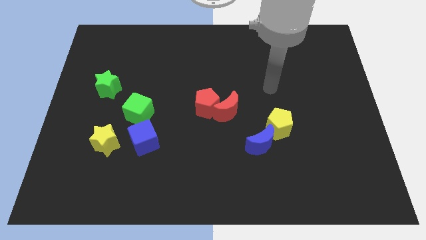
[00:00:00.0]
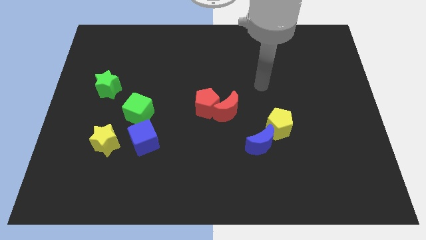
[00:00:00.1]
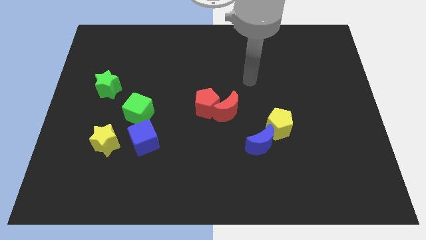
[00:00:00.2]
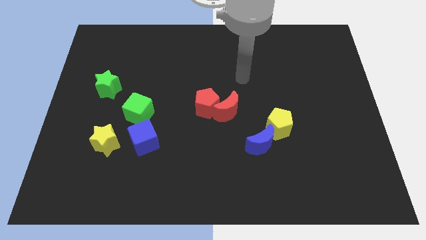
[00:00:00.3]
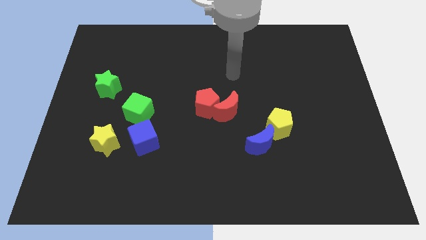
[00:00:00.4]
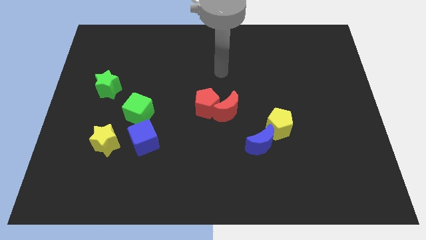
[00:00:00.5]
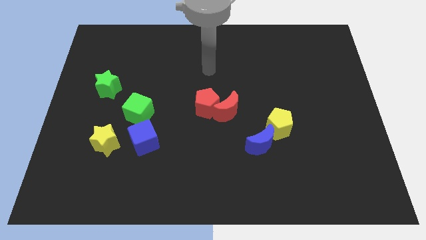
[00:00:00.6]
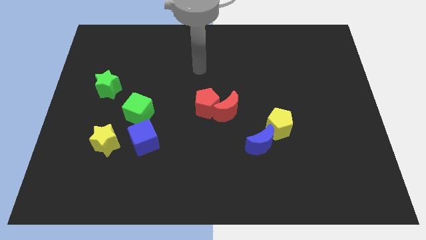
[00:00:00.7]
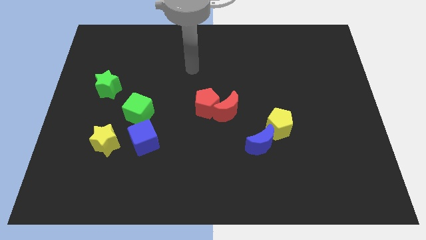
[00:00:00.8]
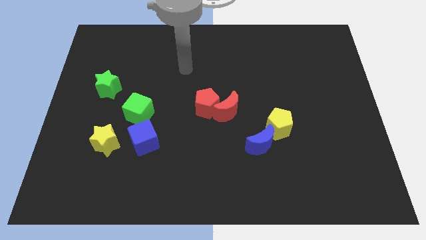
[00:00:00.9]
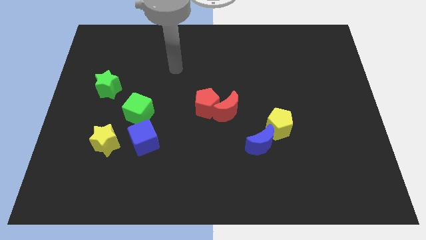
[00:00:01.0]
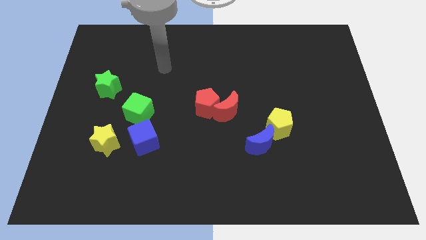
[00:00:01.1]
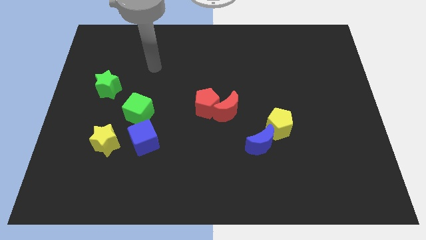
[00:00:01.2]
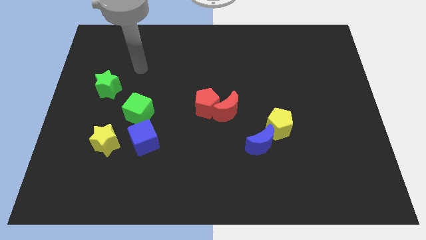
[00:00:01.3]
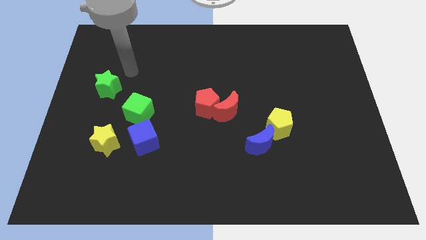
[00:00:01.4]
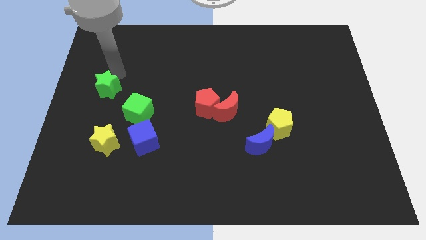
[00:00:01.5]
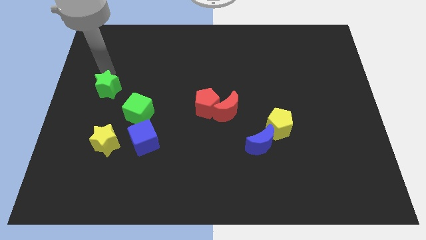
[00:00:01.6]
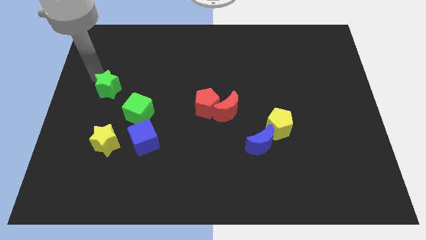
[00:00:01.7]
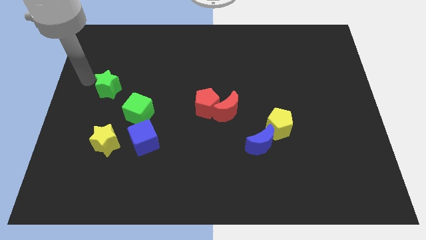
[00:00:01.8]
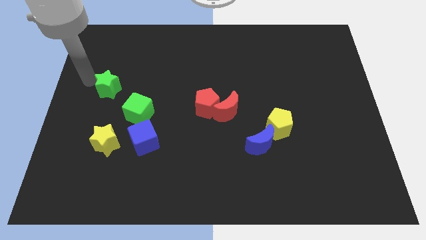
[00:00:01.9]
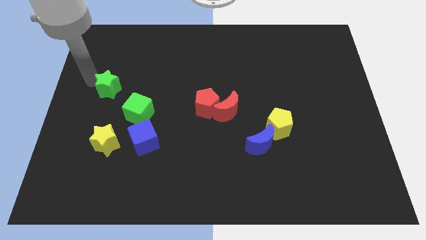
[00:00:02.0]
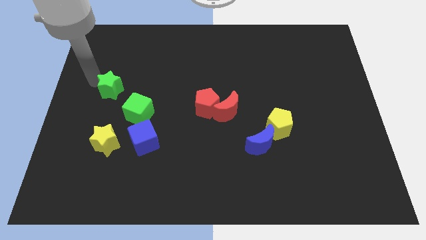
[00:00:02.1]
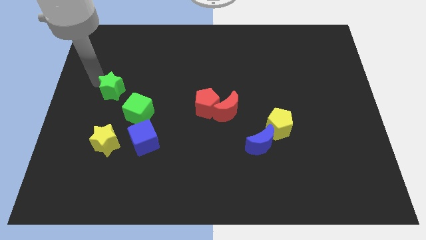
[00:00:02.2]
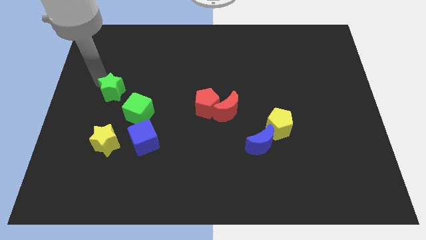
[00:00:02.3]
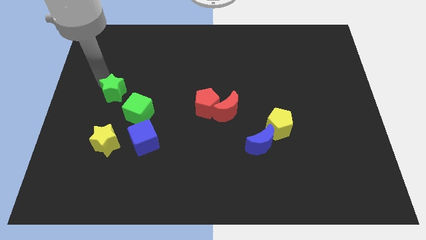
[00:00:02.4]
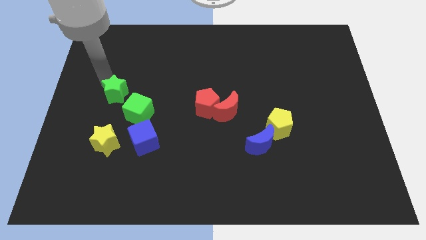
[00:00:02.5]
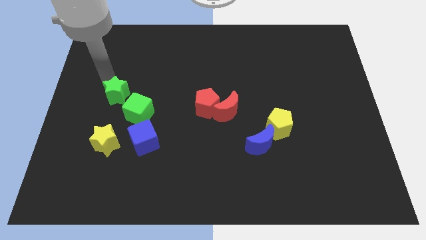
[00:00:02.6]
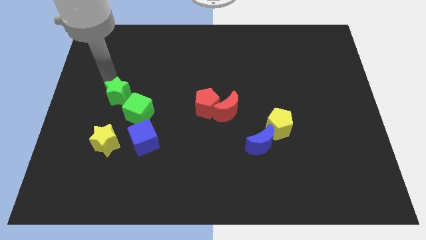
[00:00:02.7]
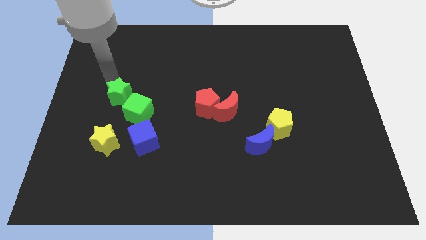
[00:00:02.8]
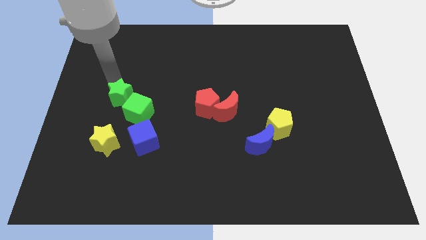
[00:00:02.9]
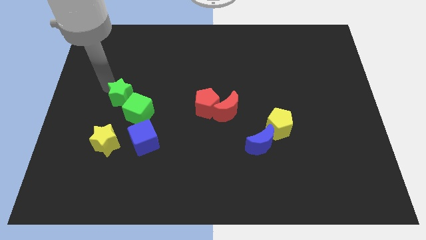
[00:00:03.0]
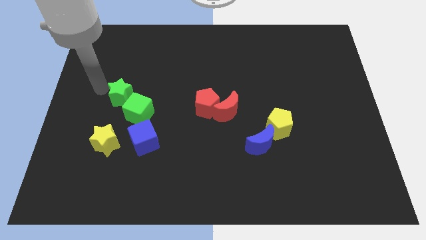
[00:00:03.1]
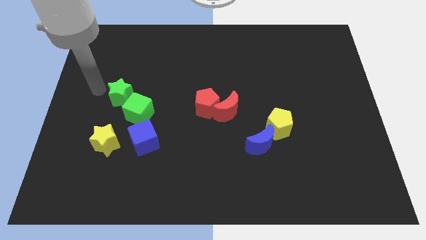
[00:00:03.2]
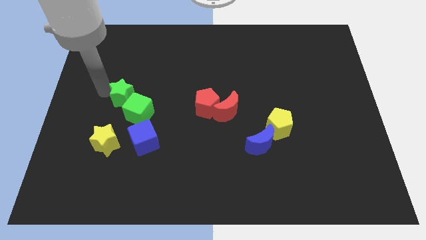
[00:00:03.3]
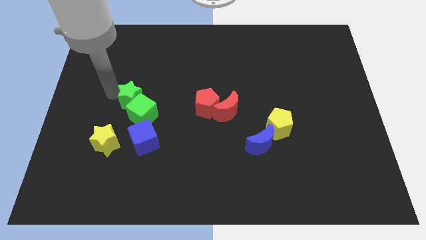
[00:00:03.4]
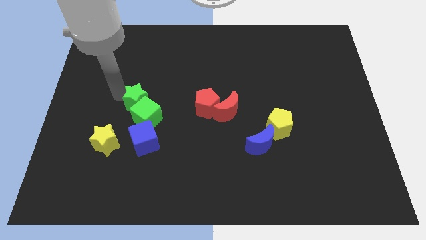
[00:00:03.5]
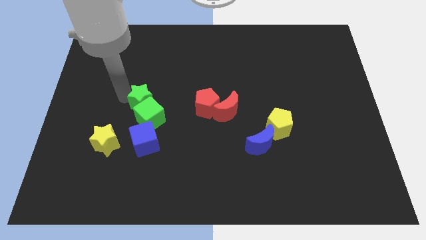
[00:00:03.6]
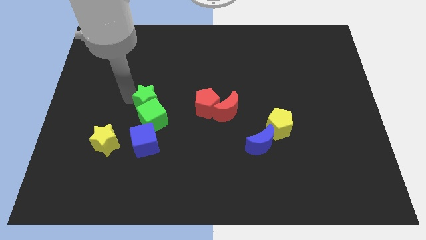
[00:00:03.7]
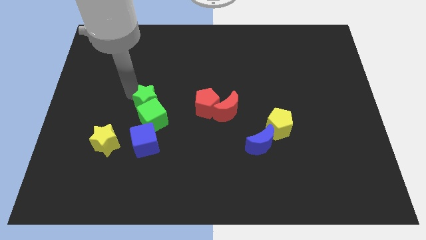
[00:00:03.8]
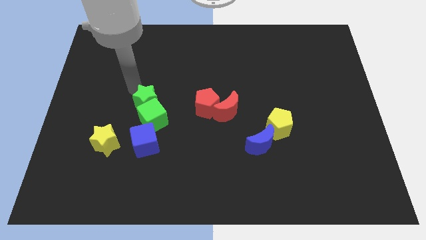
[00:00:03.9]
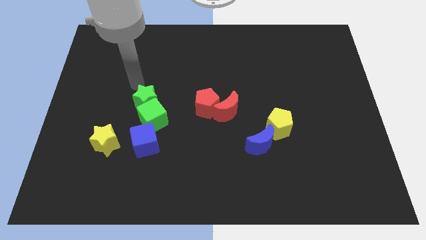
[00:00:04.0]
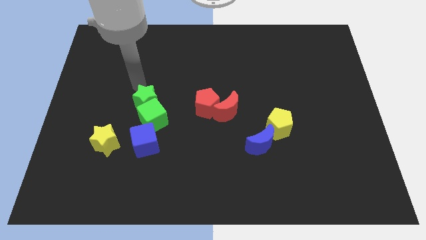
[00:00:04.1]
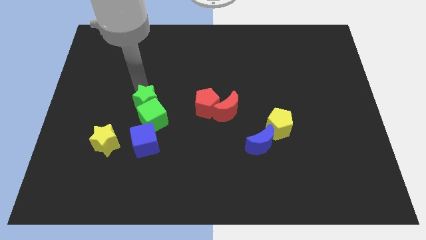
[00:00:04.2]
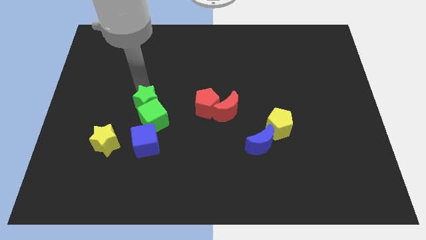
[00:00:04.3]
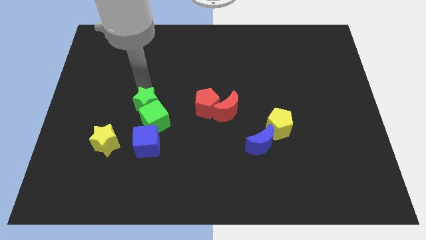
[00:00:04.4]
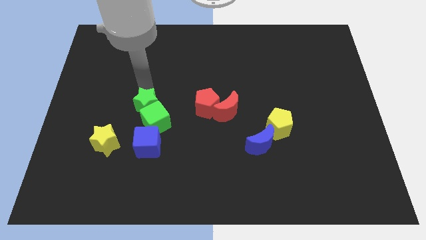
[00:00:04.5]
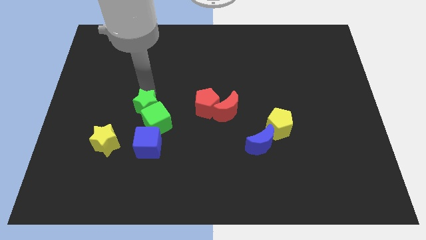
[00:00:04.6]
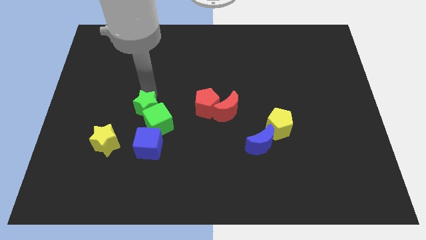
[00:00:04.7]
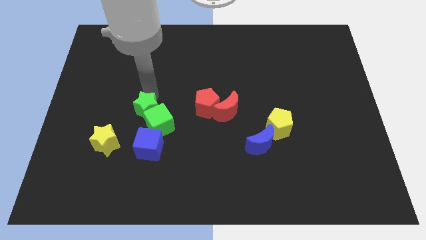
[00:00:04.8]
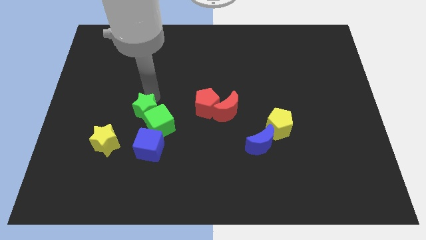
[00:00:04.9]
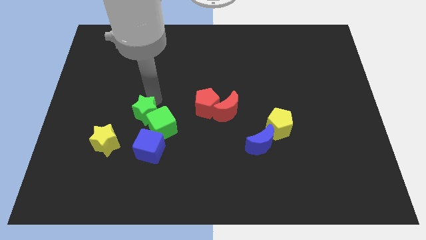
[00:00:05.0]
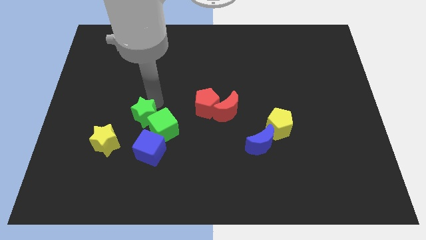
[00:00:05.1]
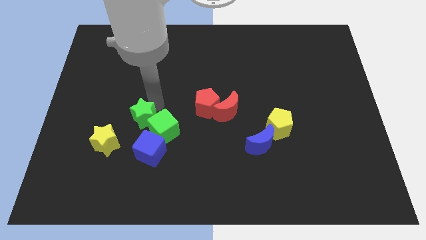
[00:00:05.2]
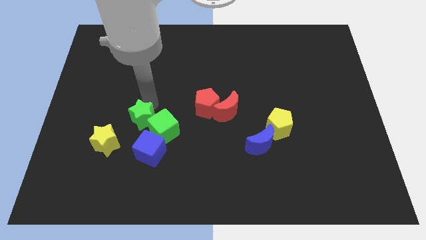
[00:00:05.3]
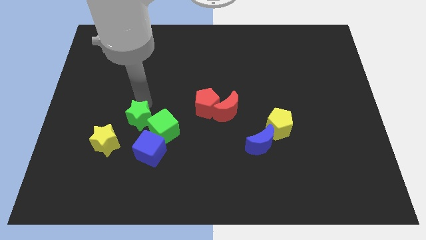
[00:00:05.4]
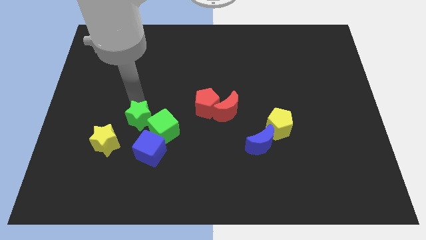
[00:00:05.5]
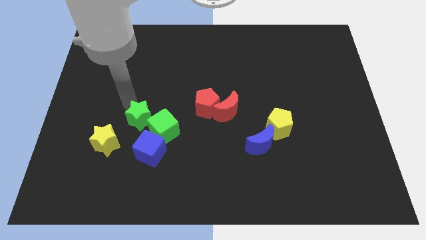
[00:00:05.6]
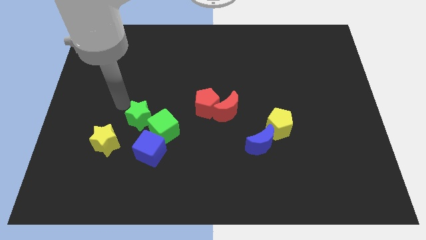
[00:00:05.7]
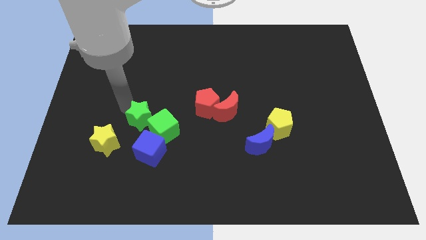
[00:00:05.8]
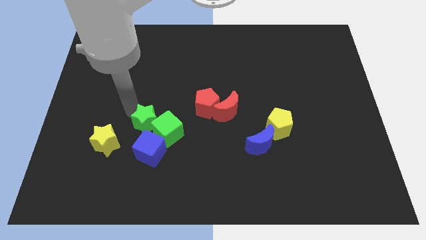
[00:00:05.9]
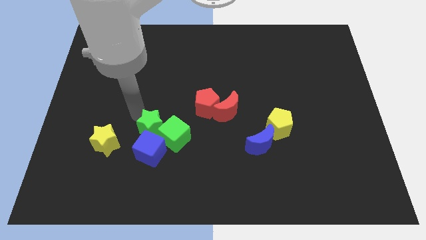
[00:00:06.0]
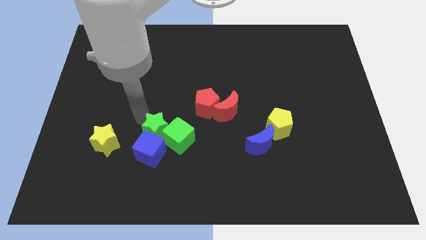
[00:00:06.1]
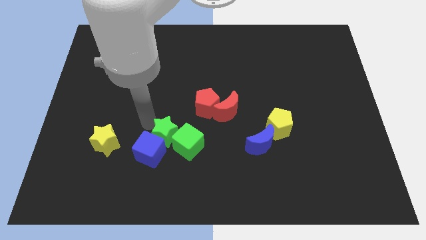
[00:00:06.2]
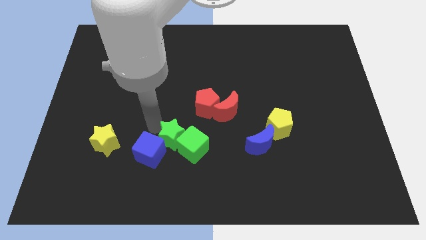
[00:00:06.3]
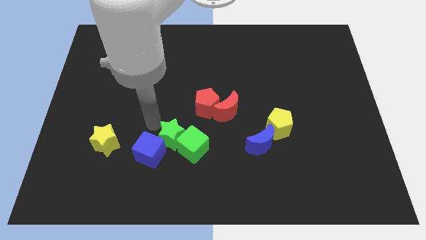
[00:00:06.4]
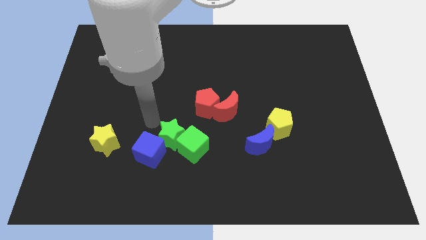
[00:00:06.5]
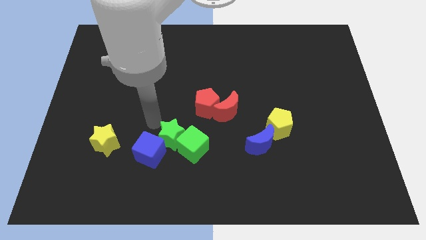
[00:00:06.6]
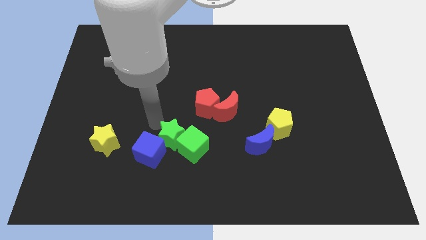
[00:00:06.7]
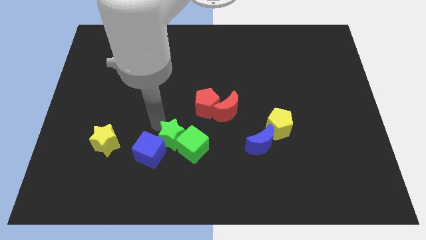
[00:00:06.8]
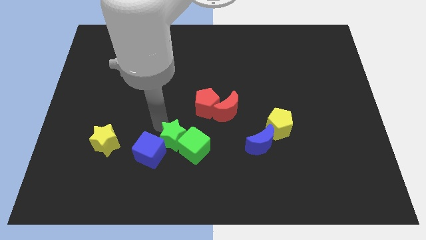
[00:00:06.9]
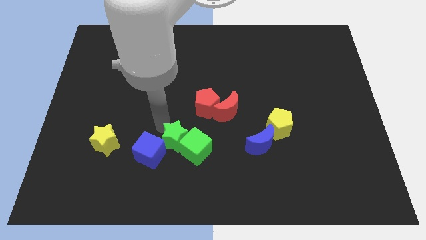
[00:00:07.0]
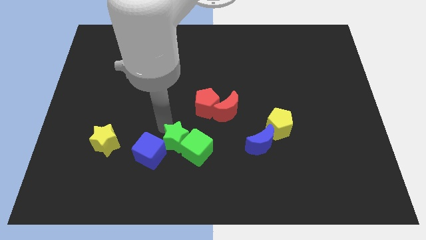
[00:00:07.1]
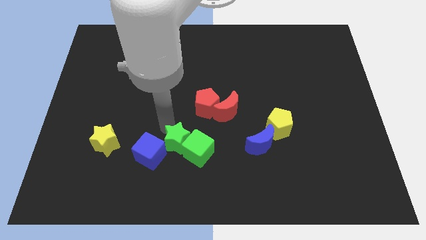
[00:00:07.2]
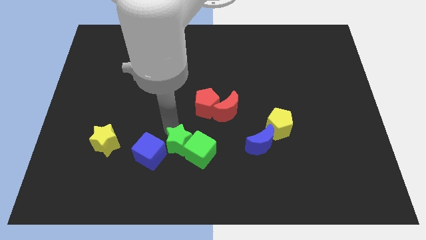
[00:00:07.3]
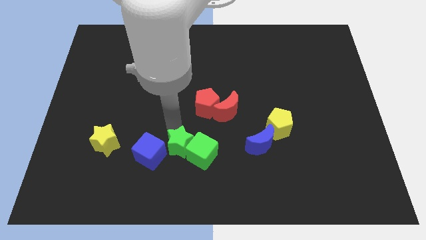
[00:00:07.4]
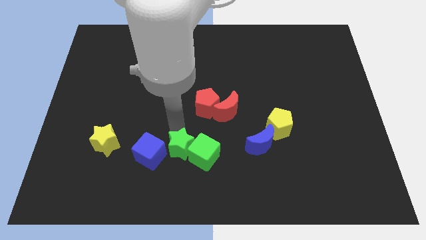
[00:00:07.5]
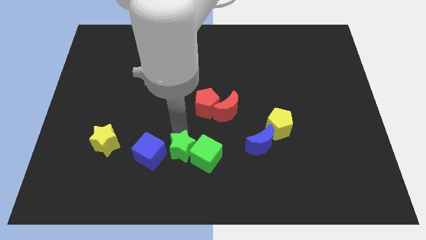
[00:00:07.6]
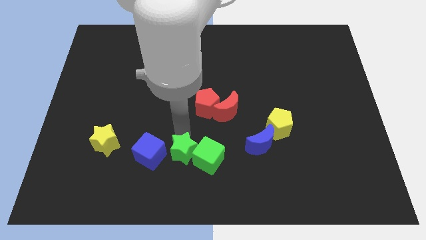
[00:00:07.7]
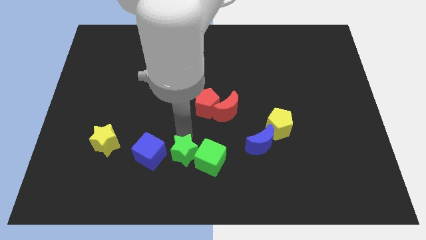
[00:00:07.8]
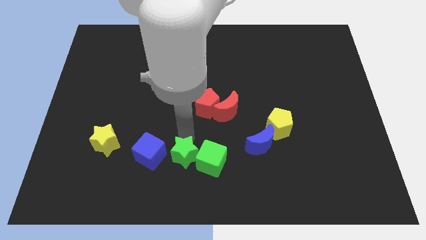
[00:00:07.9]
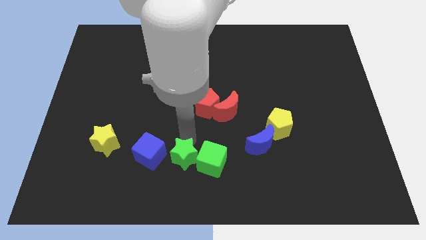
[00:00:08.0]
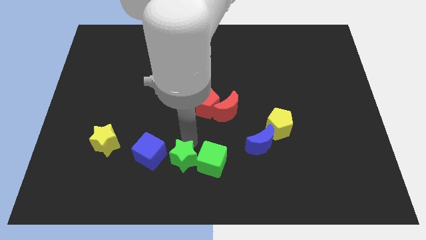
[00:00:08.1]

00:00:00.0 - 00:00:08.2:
move the green star to the bottom side
